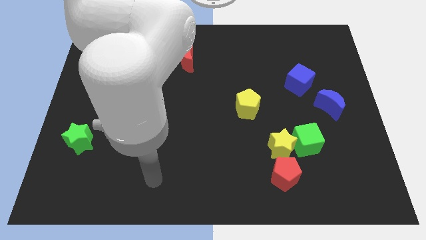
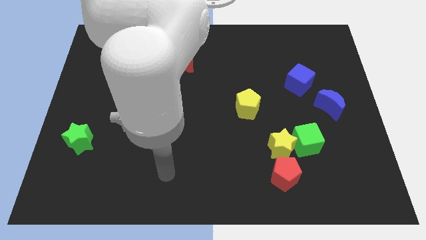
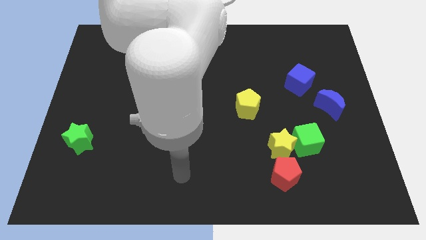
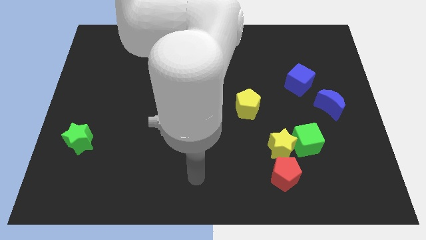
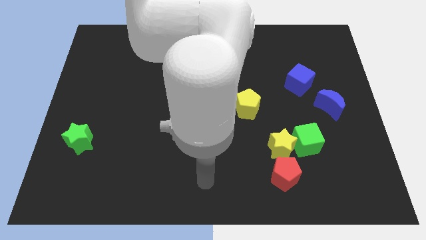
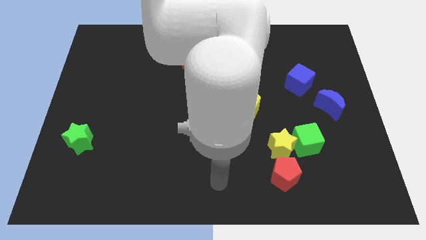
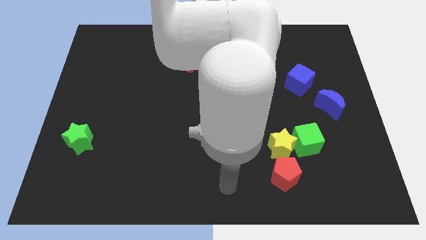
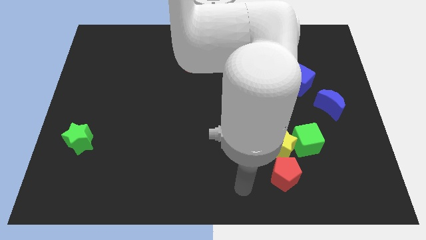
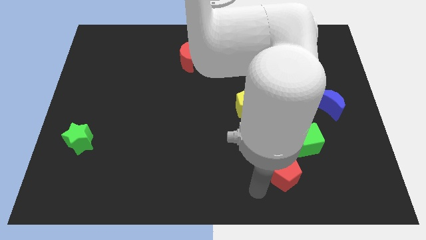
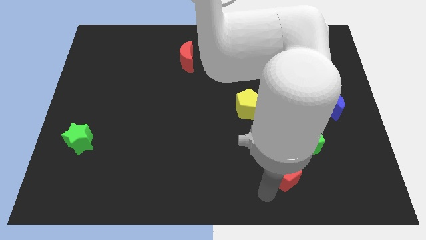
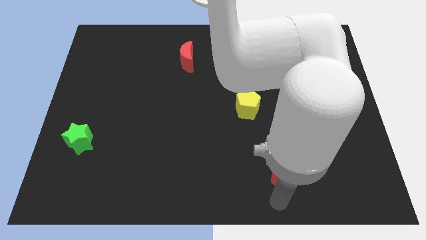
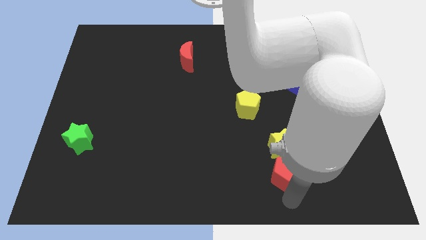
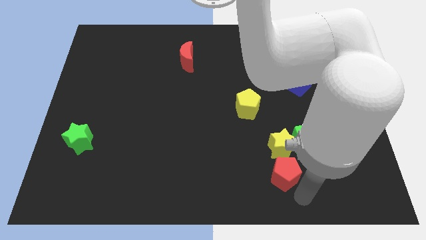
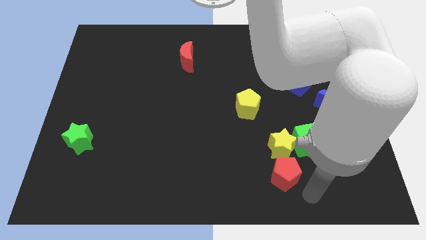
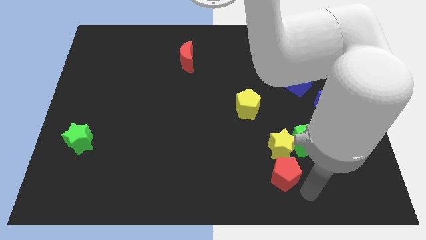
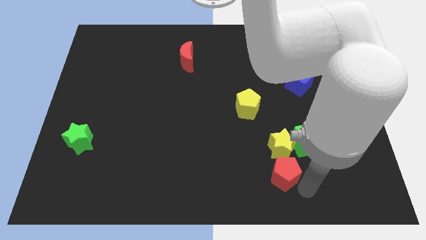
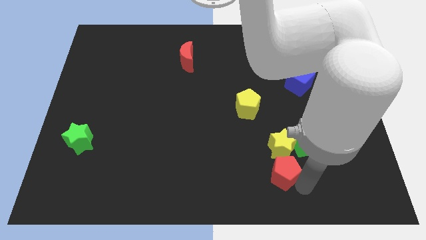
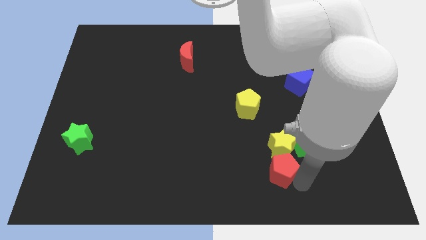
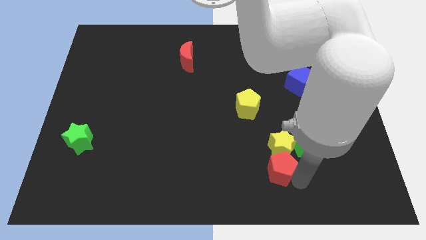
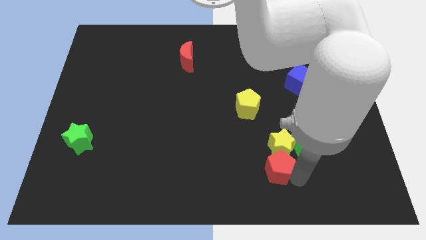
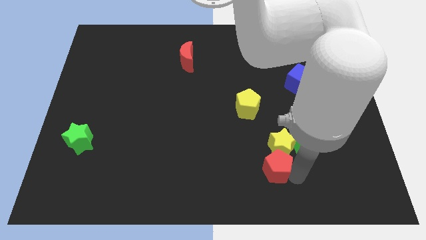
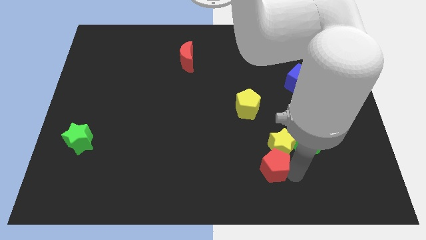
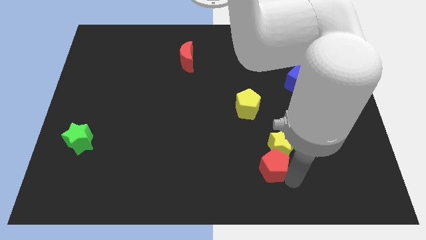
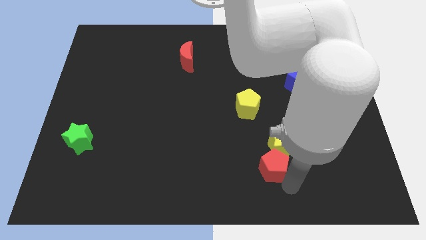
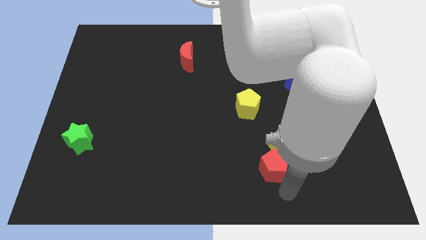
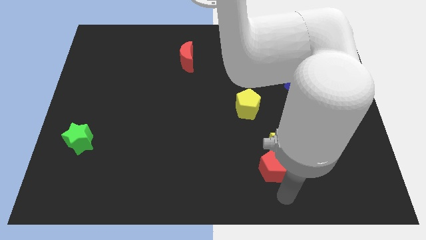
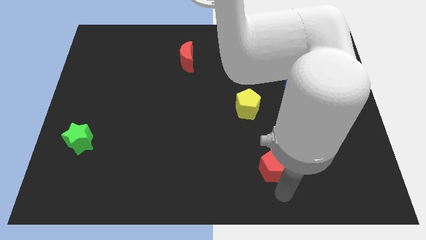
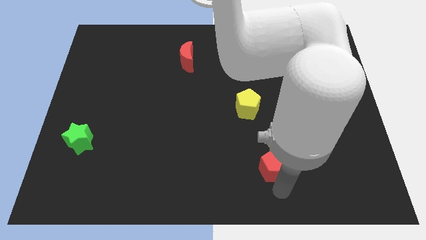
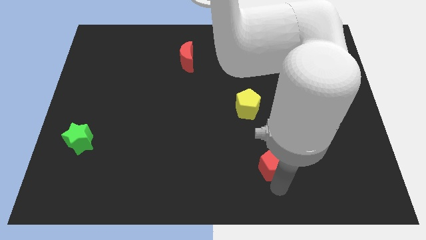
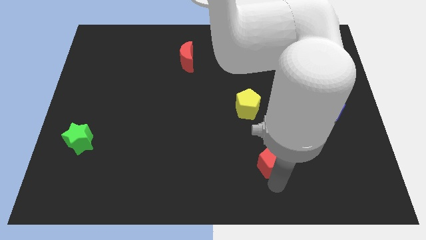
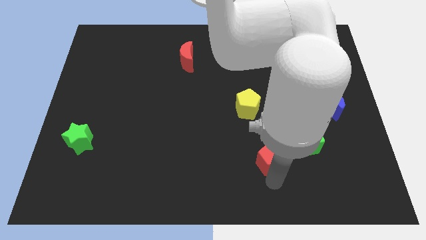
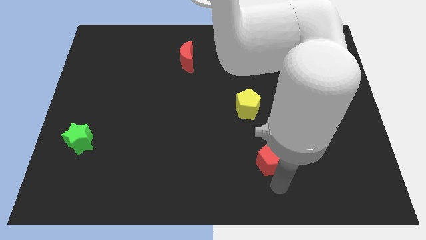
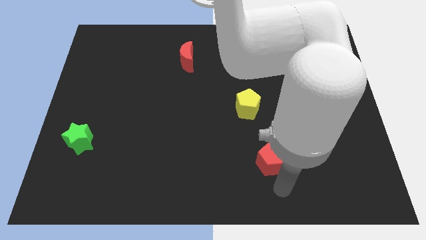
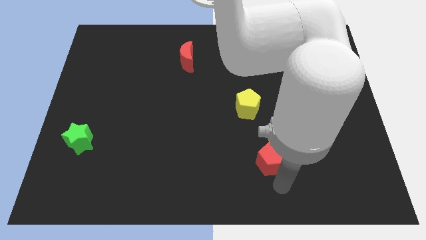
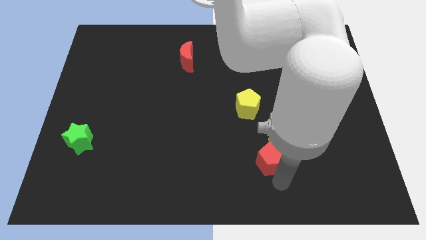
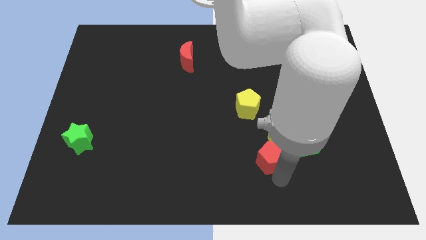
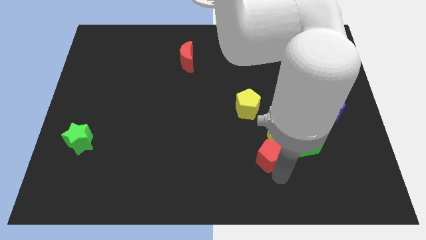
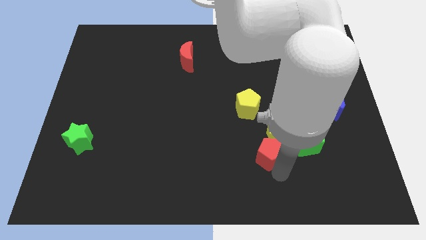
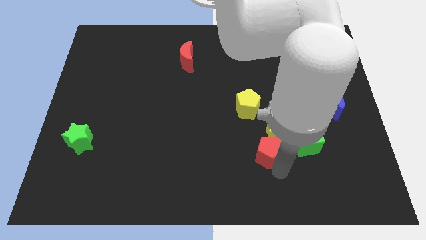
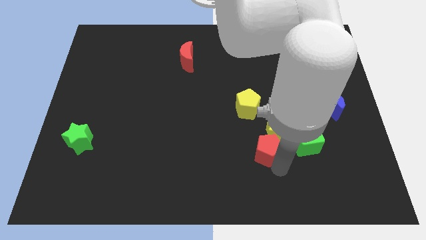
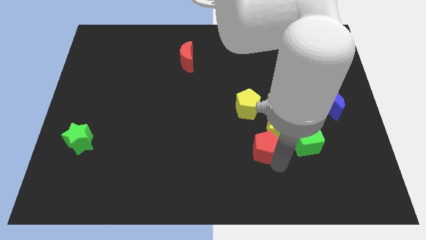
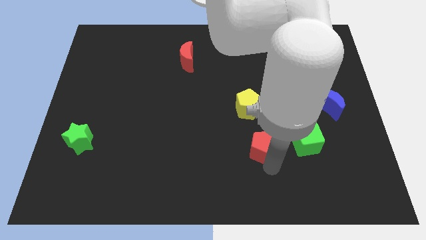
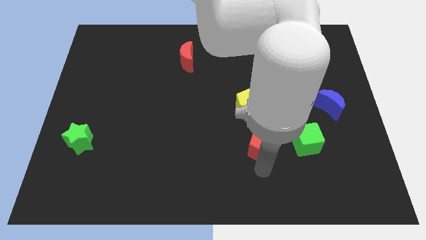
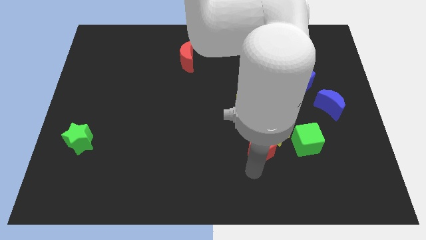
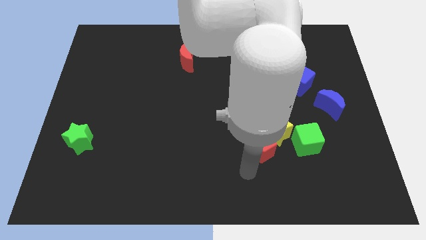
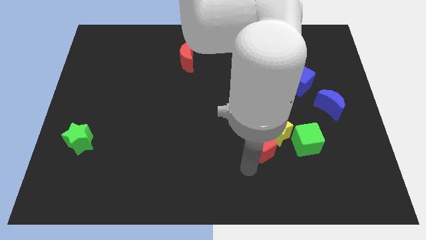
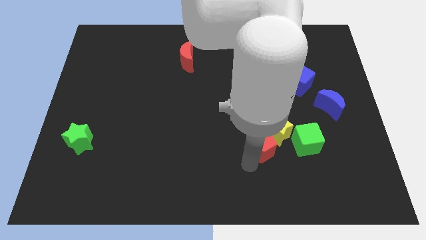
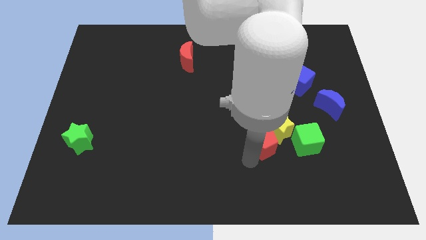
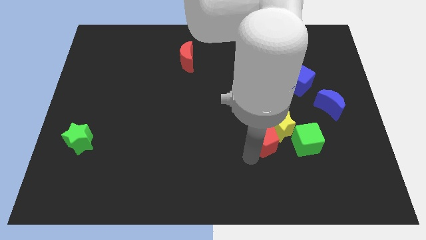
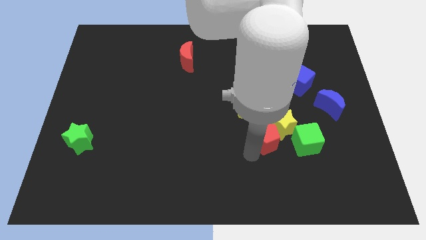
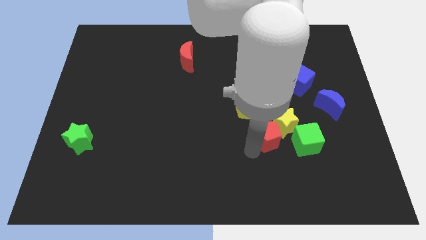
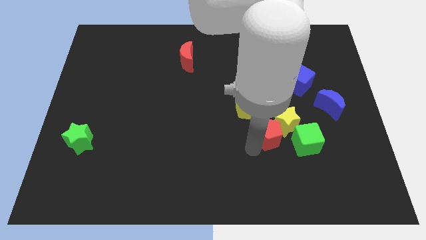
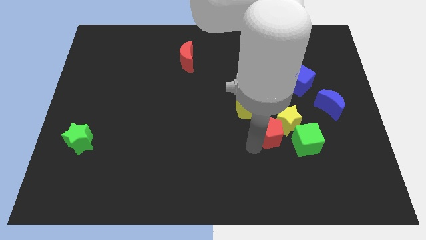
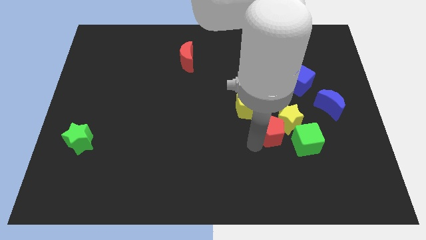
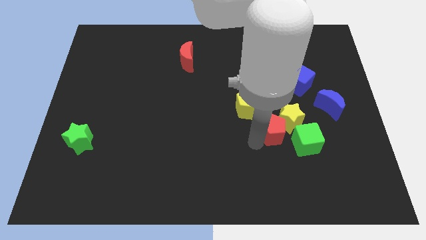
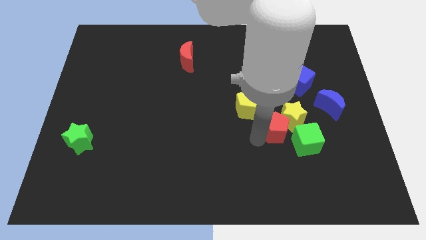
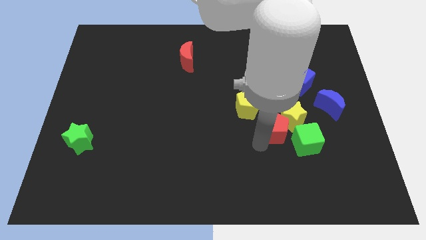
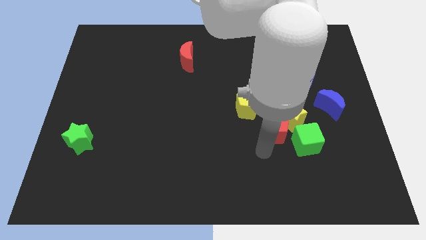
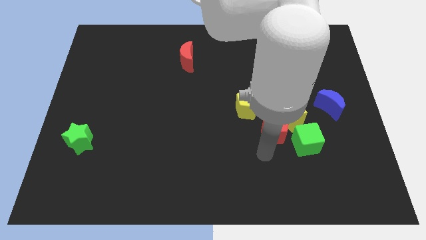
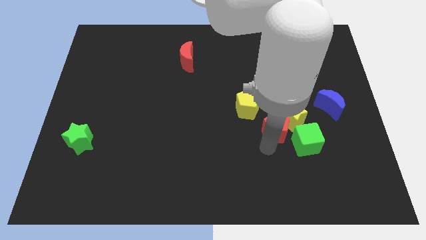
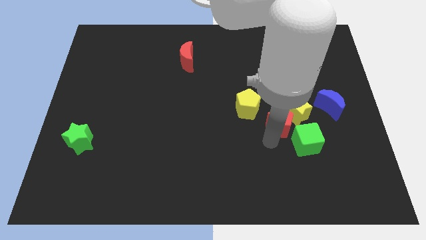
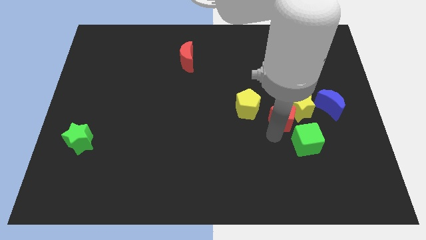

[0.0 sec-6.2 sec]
push the red pentagon to the left of the blue moon

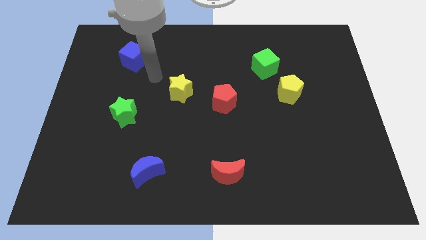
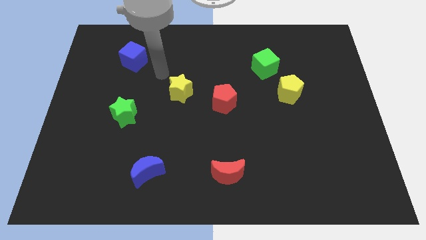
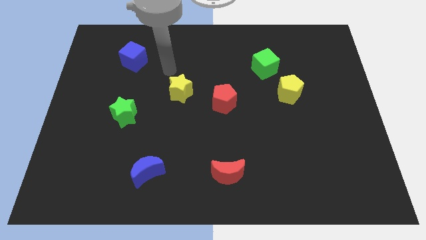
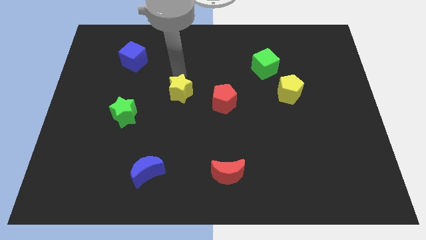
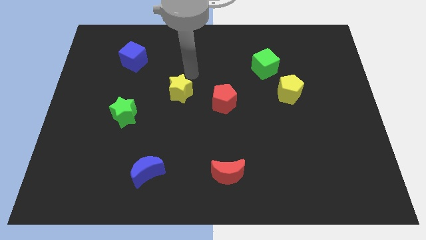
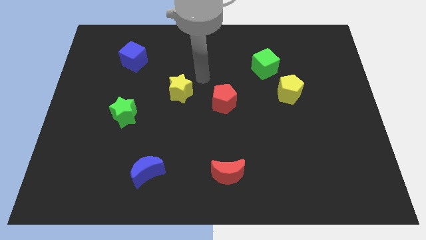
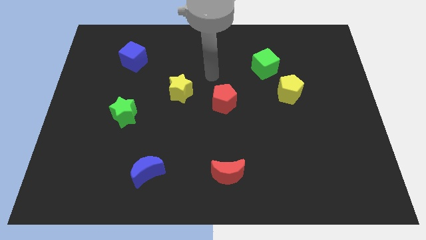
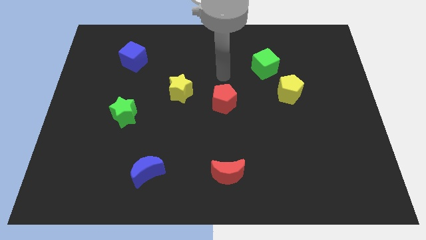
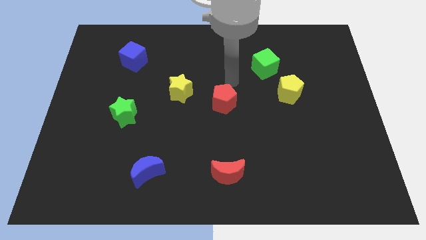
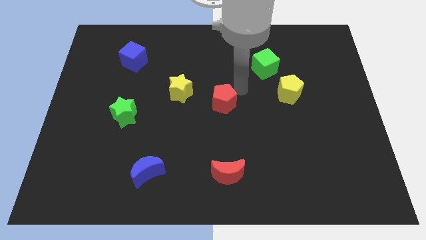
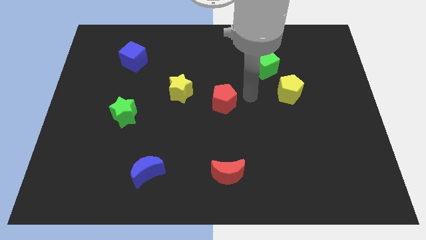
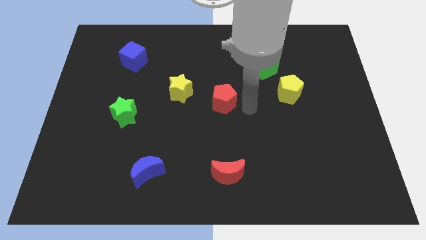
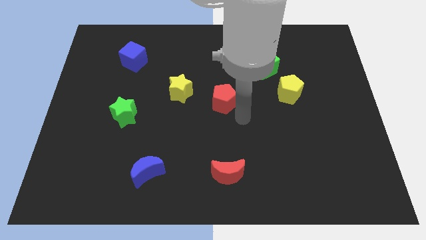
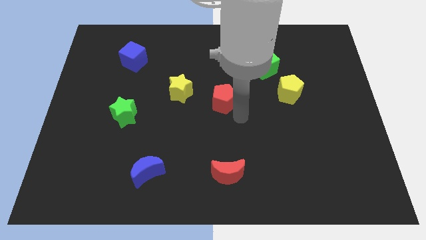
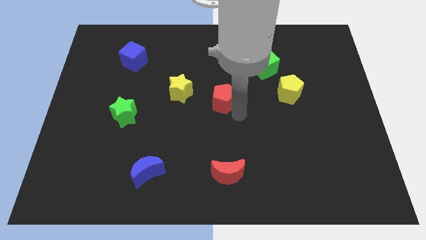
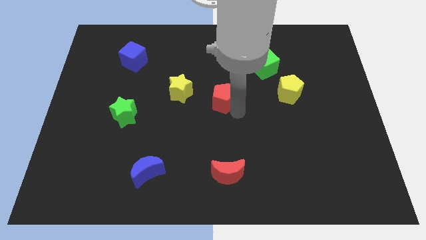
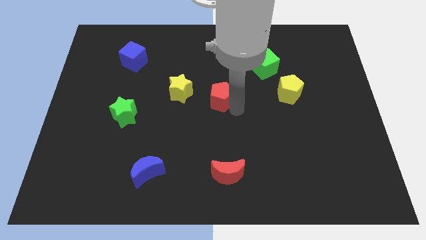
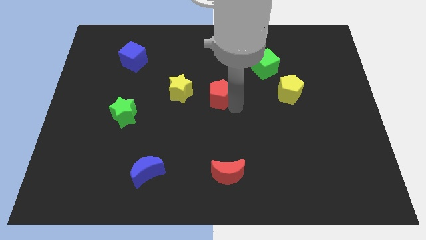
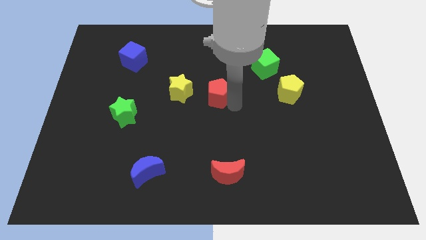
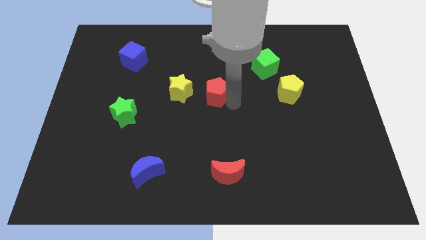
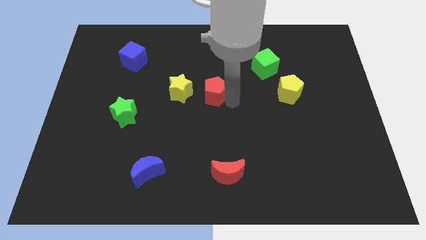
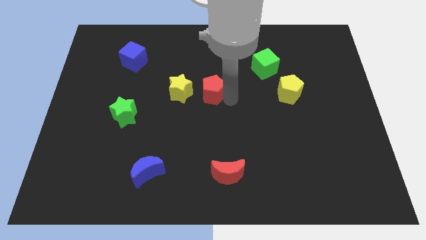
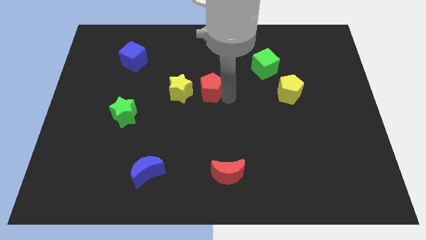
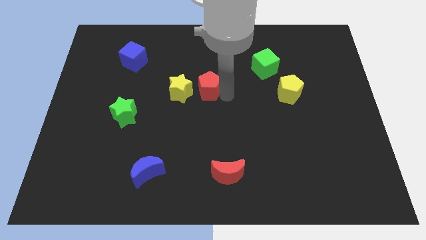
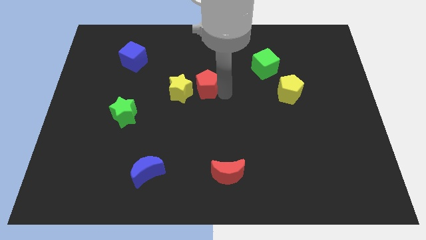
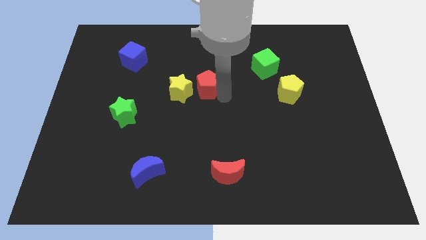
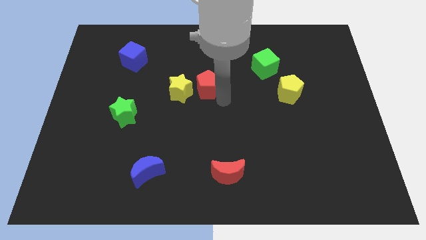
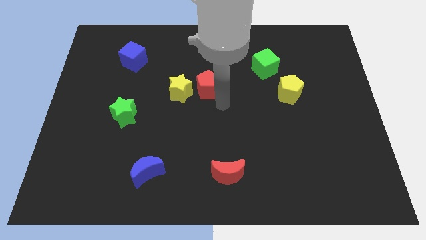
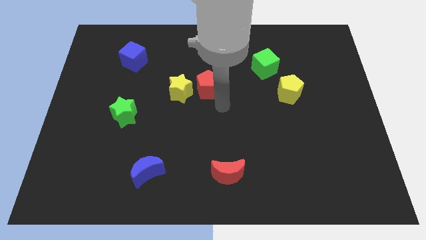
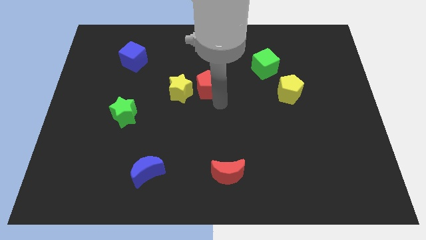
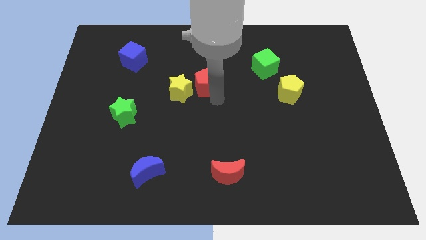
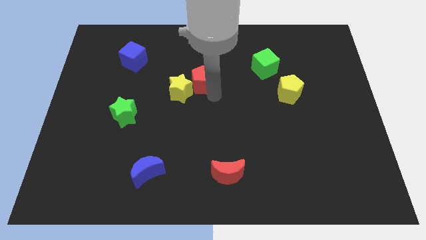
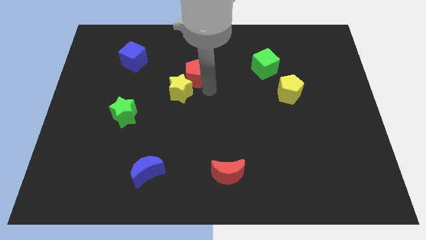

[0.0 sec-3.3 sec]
put the red pentagon to the top of the yellow star
